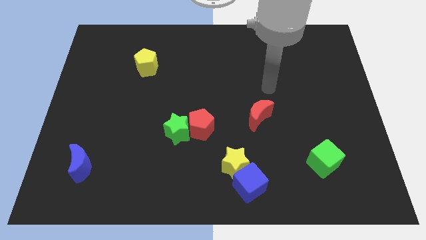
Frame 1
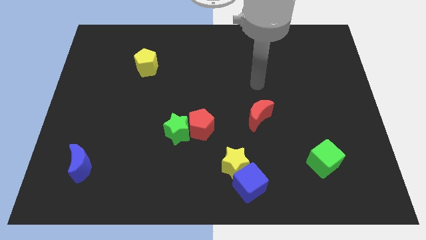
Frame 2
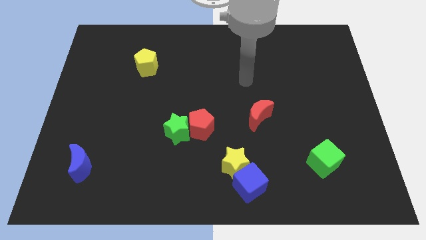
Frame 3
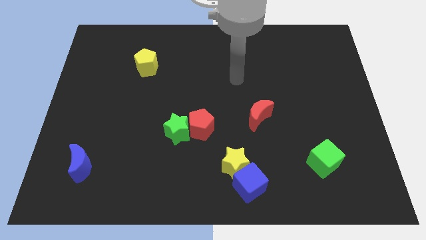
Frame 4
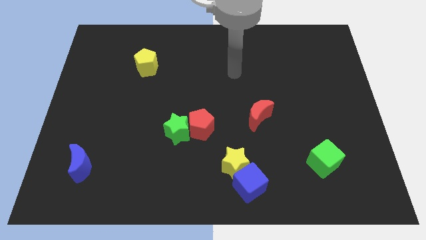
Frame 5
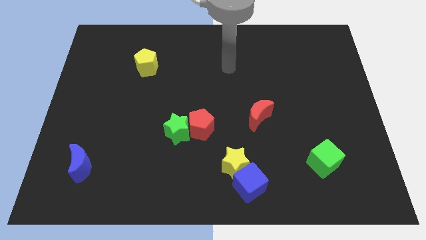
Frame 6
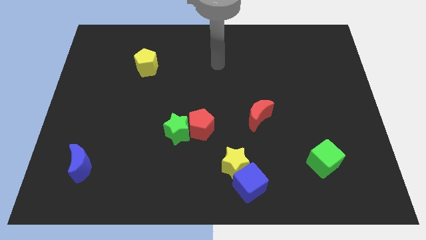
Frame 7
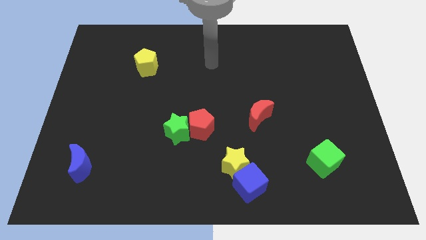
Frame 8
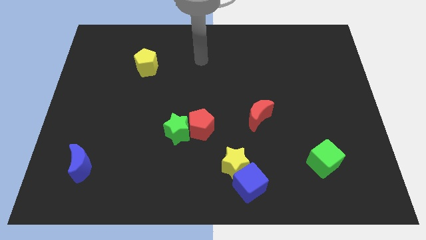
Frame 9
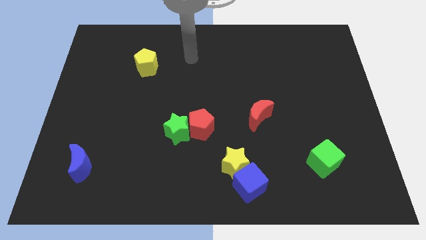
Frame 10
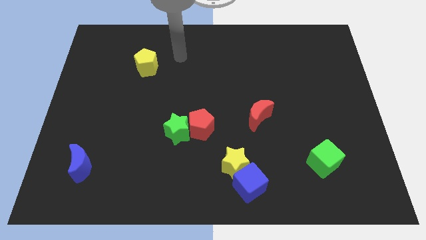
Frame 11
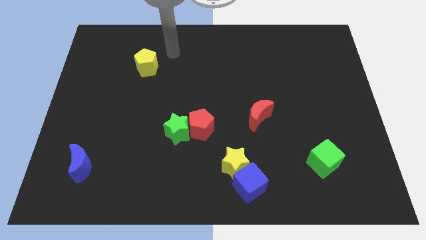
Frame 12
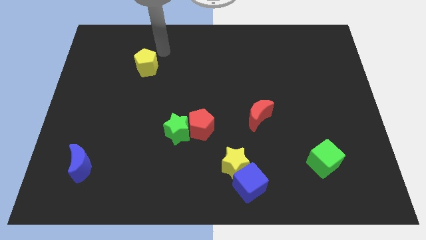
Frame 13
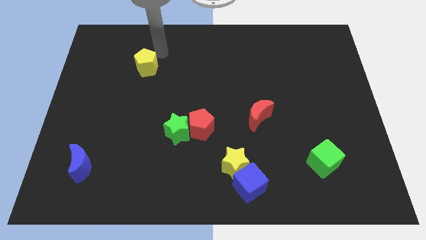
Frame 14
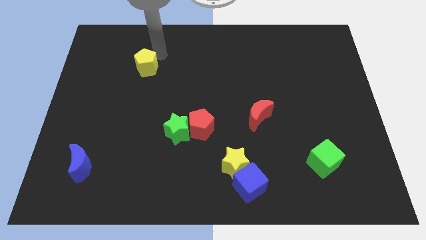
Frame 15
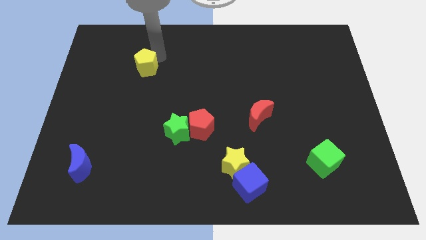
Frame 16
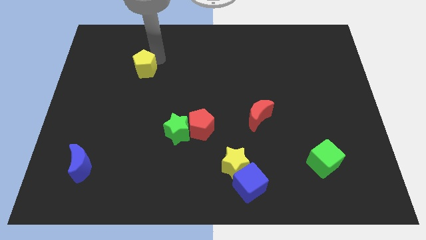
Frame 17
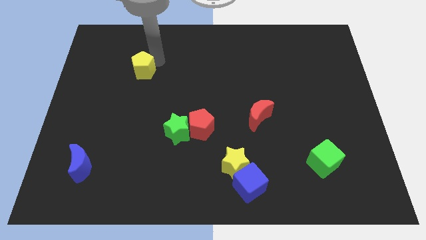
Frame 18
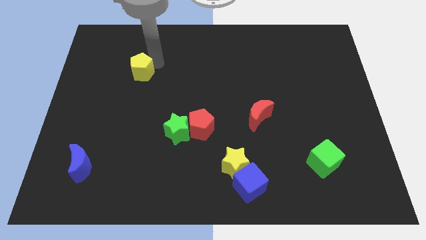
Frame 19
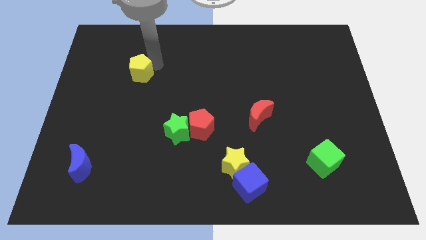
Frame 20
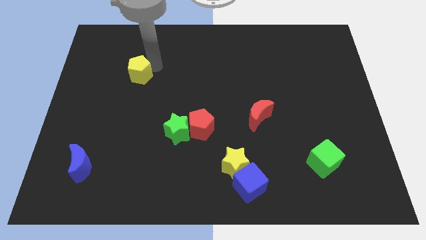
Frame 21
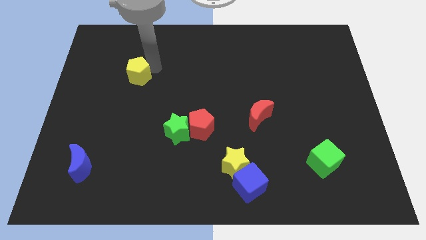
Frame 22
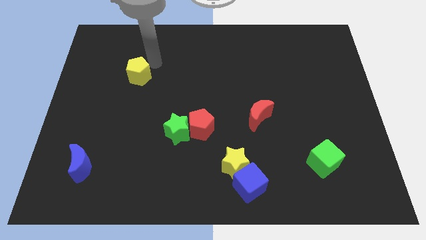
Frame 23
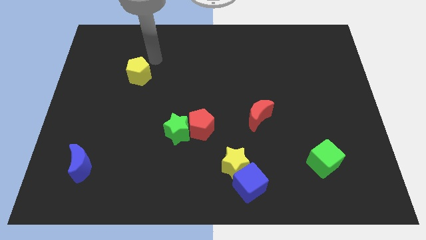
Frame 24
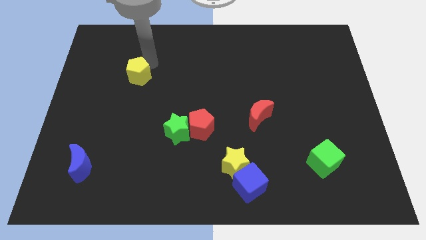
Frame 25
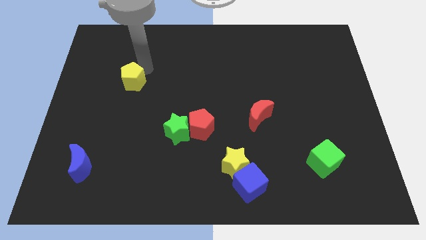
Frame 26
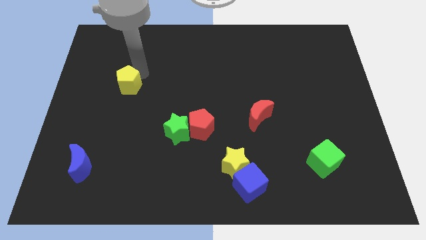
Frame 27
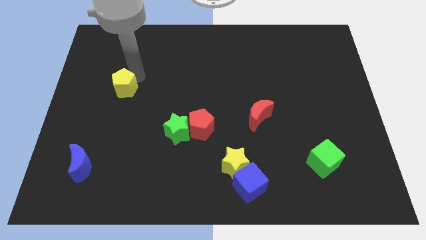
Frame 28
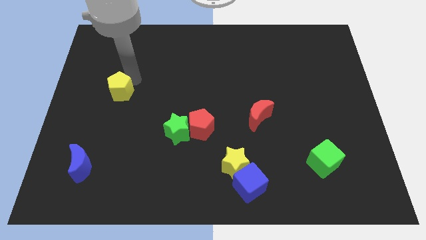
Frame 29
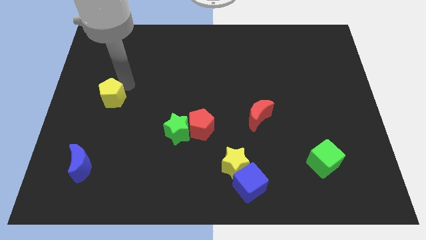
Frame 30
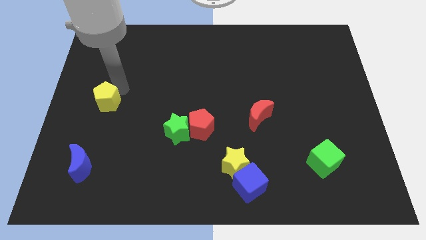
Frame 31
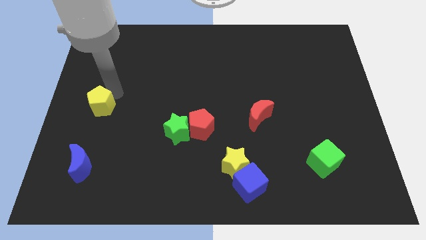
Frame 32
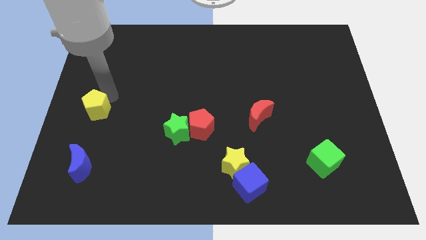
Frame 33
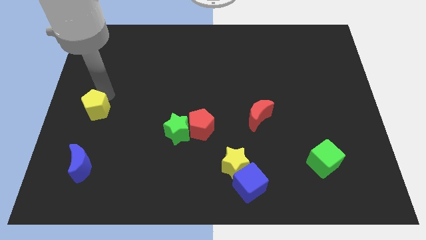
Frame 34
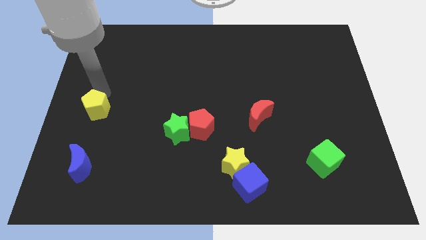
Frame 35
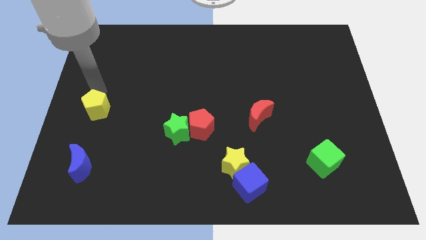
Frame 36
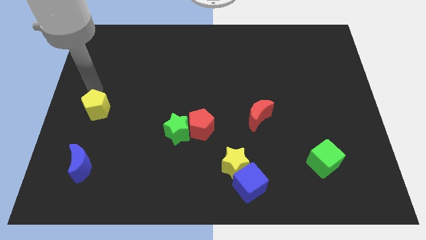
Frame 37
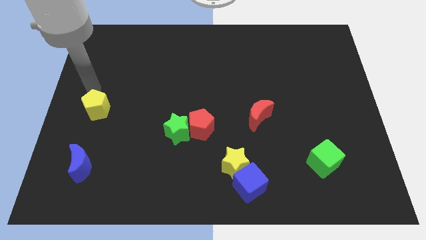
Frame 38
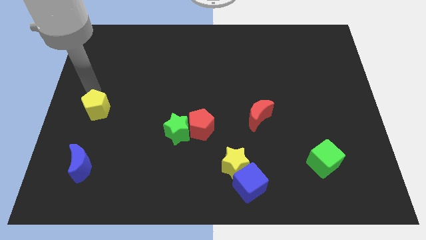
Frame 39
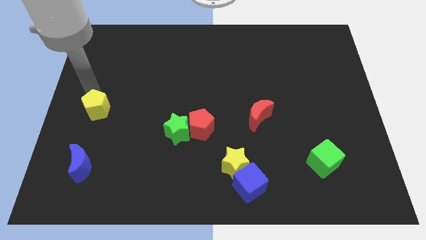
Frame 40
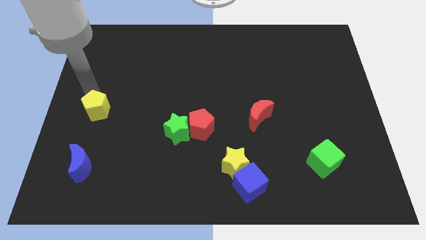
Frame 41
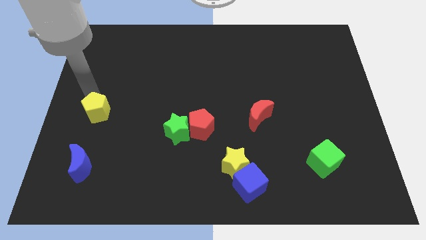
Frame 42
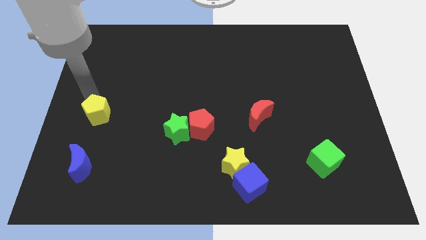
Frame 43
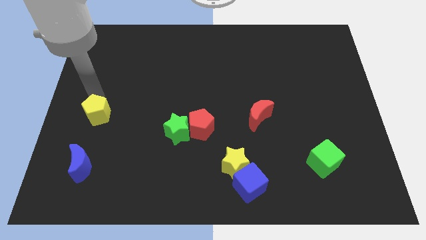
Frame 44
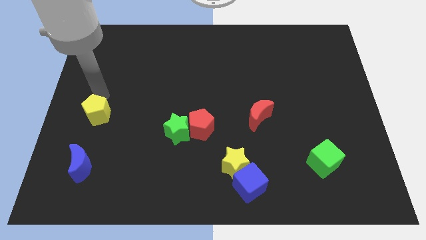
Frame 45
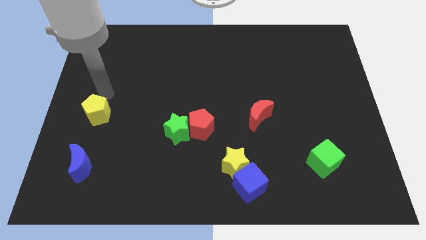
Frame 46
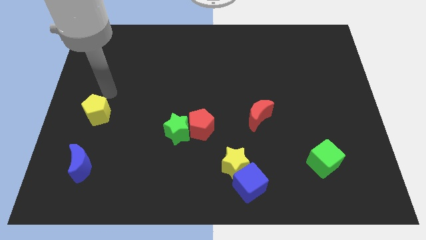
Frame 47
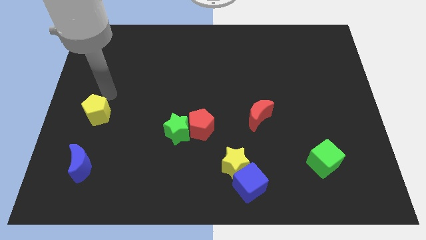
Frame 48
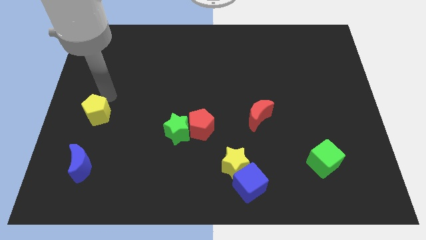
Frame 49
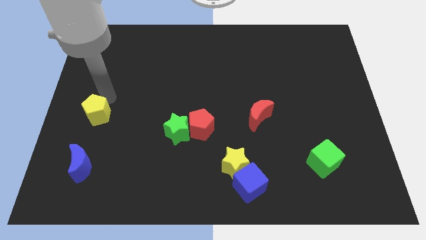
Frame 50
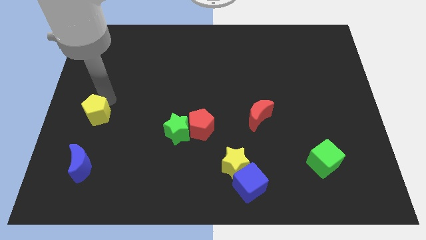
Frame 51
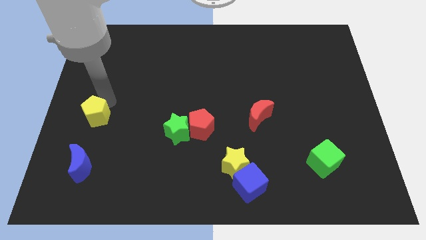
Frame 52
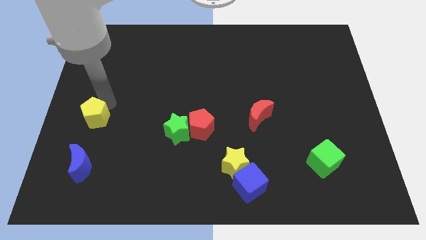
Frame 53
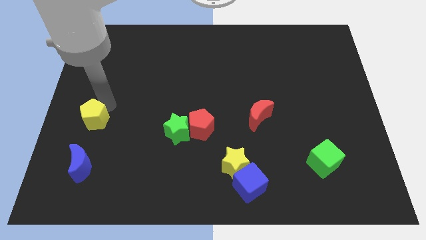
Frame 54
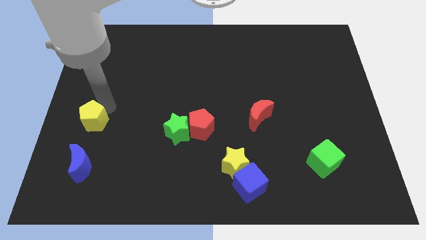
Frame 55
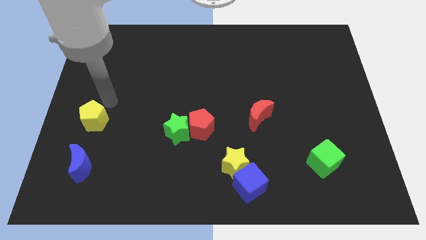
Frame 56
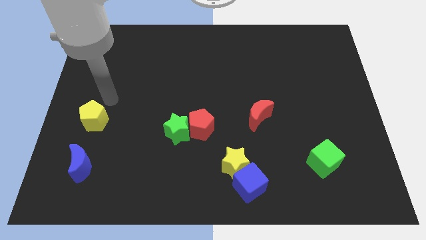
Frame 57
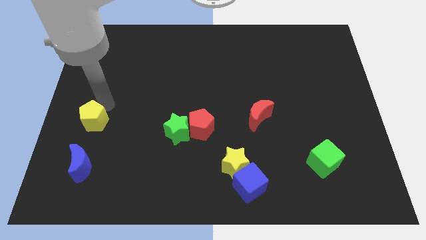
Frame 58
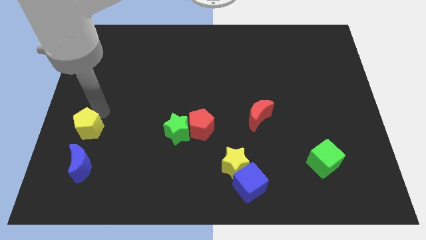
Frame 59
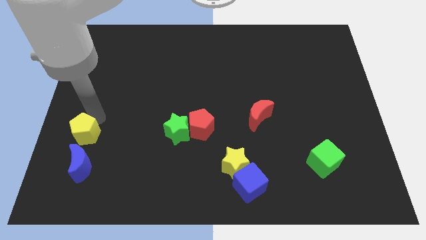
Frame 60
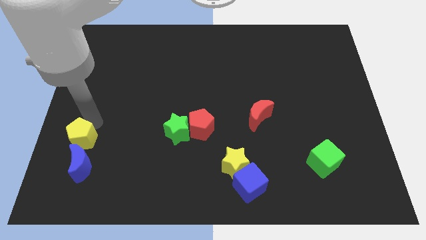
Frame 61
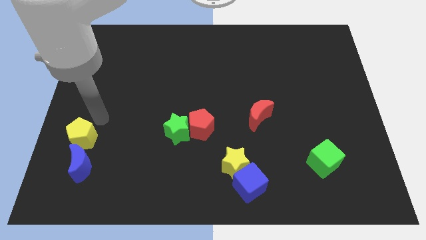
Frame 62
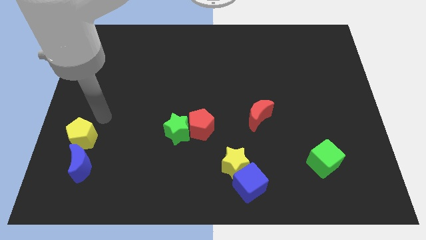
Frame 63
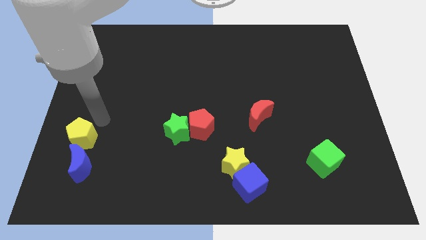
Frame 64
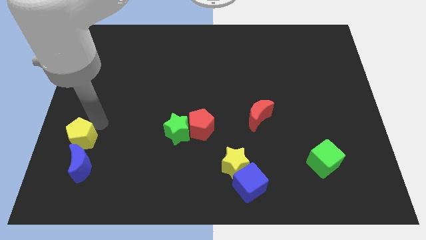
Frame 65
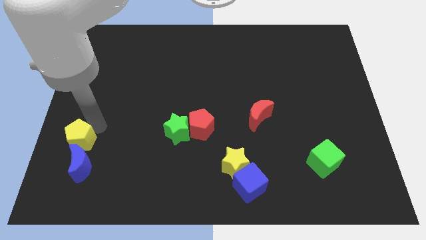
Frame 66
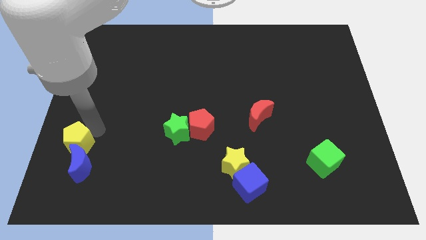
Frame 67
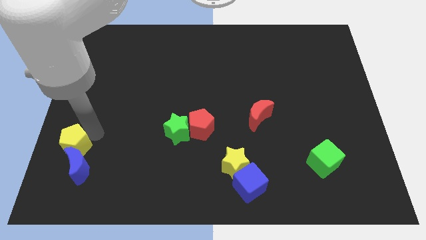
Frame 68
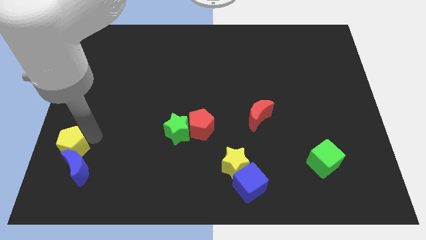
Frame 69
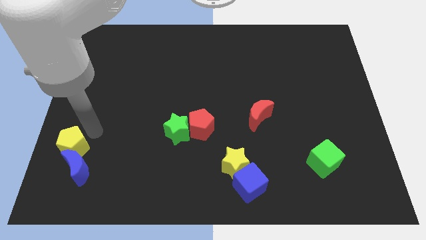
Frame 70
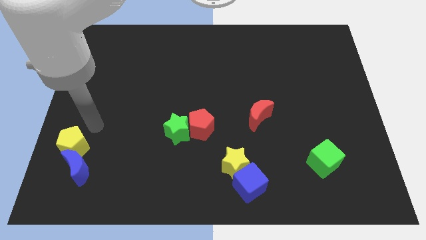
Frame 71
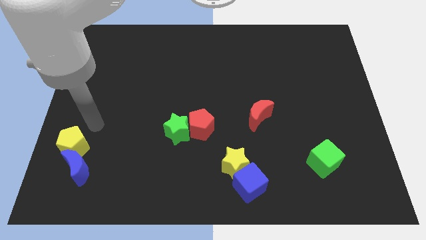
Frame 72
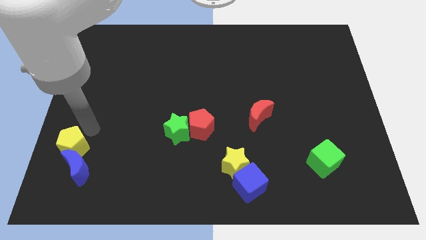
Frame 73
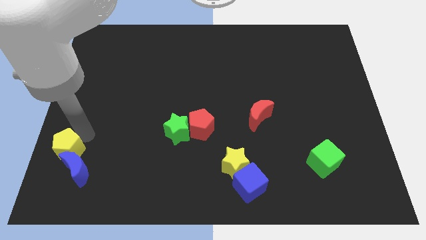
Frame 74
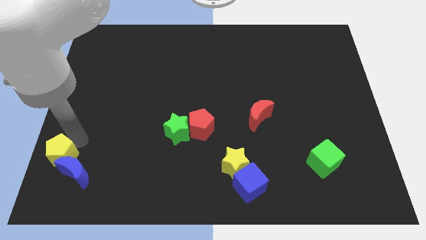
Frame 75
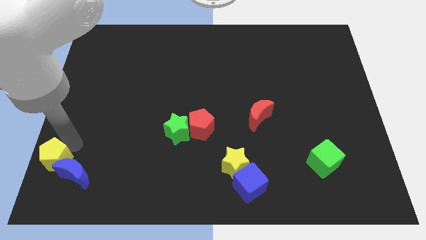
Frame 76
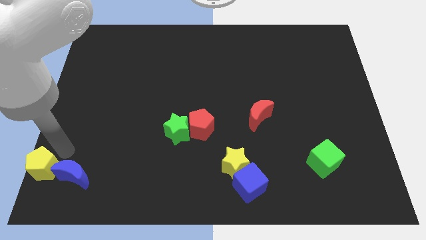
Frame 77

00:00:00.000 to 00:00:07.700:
push the yellow pentagon to the bottom left of the board
